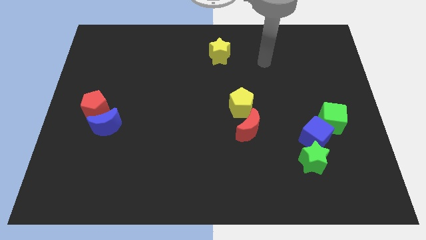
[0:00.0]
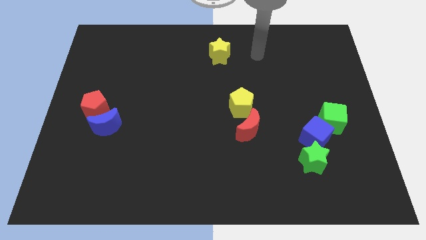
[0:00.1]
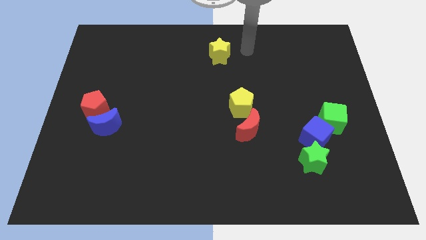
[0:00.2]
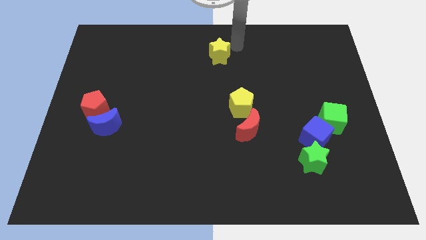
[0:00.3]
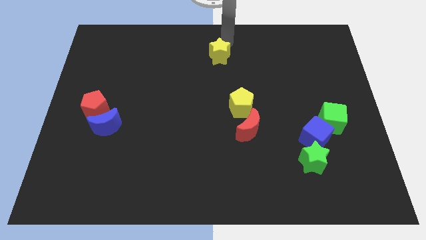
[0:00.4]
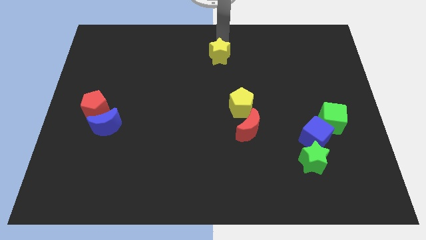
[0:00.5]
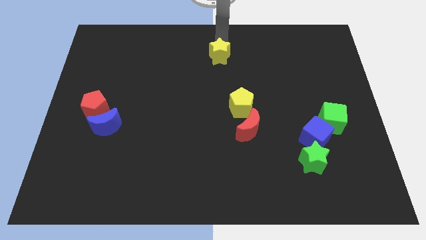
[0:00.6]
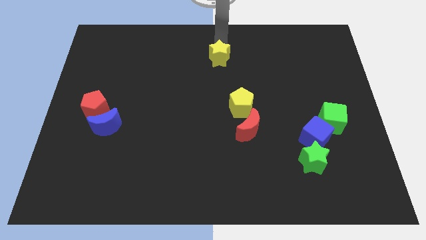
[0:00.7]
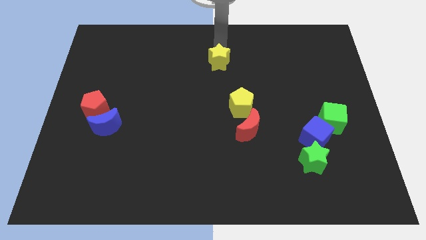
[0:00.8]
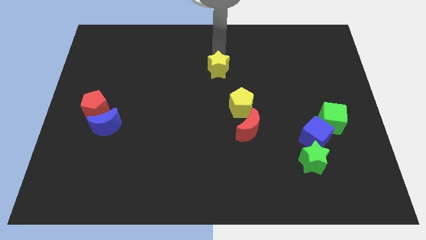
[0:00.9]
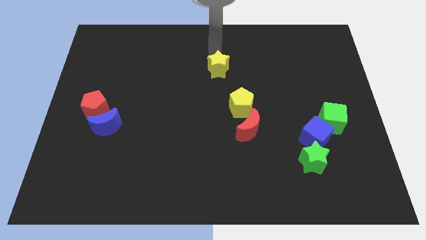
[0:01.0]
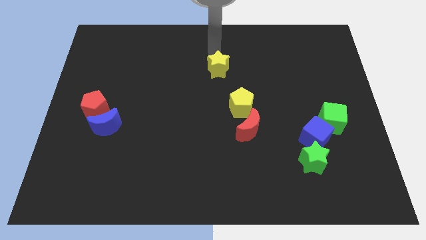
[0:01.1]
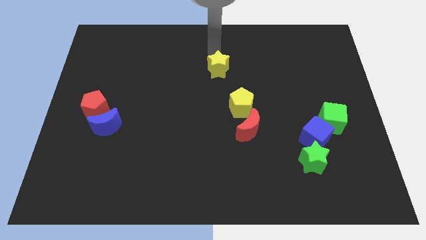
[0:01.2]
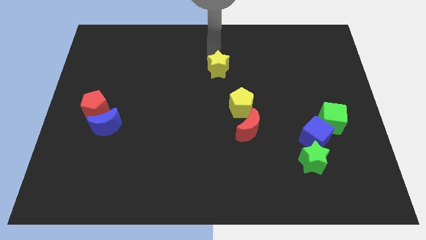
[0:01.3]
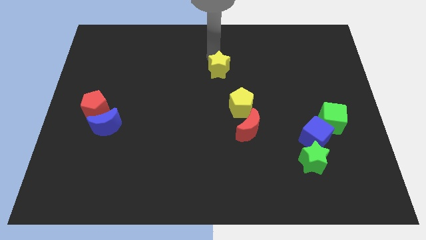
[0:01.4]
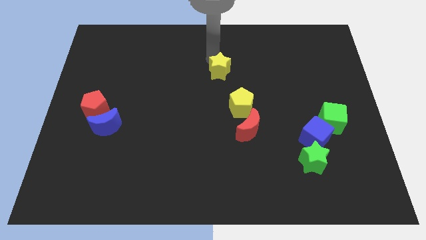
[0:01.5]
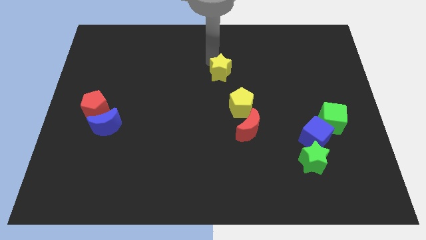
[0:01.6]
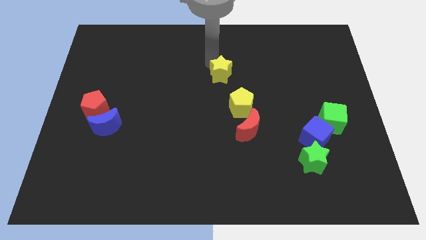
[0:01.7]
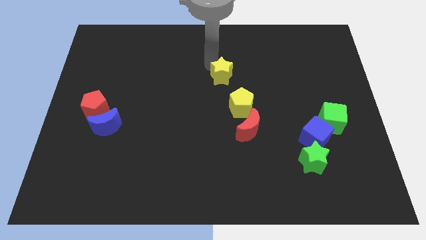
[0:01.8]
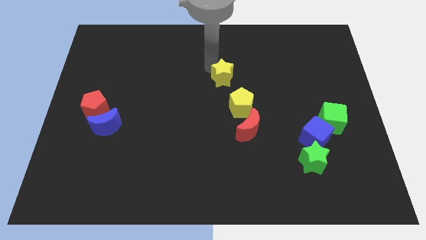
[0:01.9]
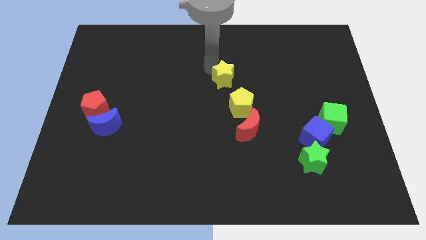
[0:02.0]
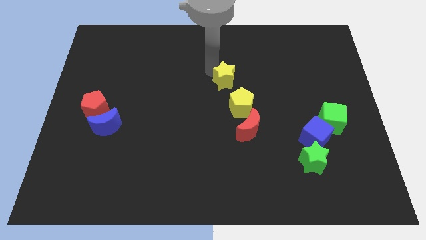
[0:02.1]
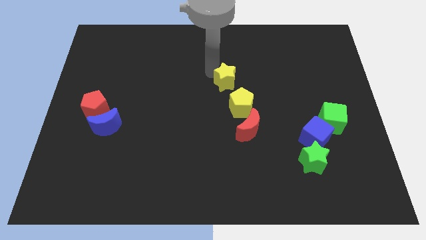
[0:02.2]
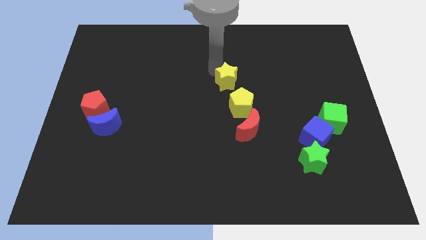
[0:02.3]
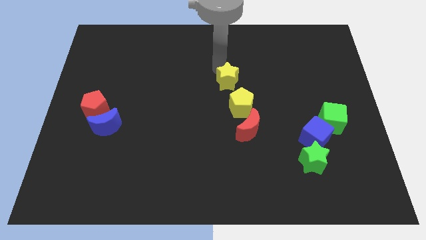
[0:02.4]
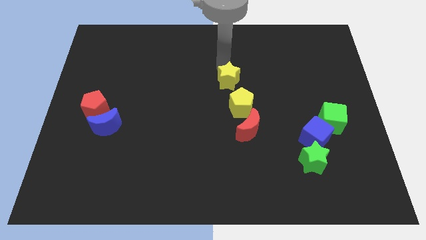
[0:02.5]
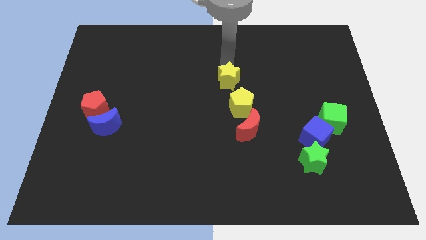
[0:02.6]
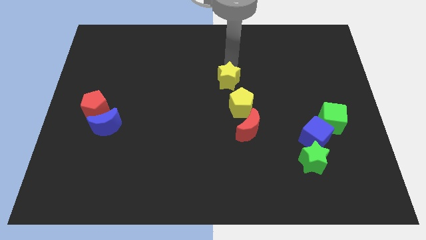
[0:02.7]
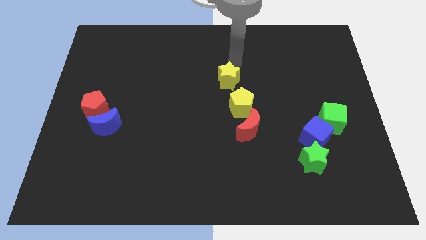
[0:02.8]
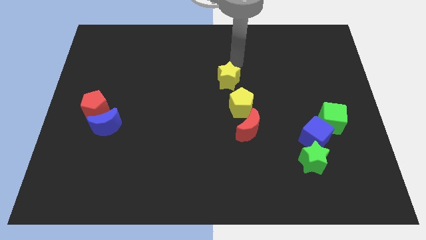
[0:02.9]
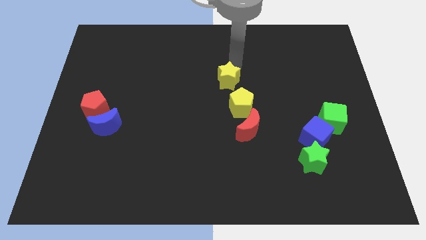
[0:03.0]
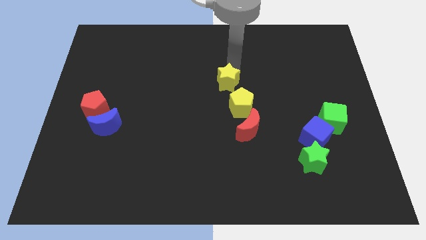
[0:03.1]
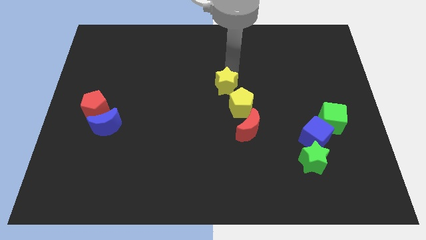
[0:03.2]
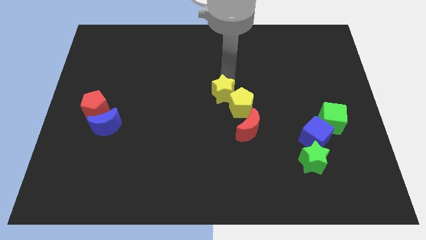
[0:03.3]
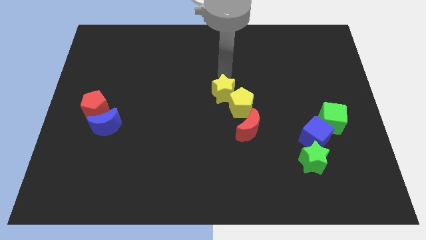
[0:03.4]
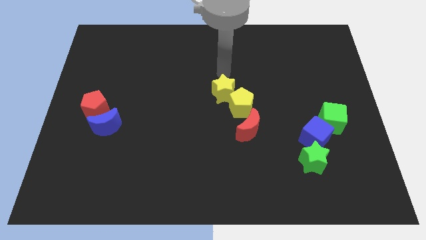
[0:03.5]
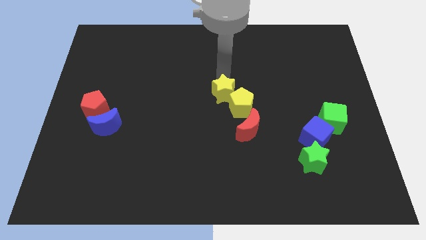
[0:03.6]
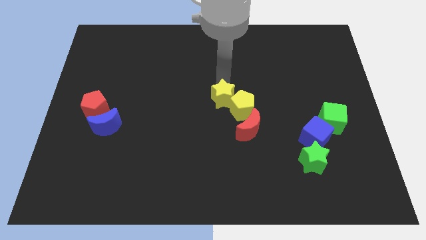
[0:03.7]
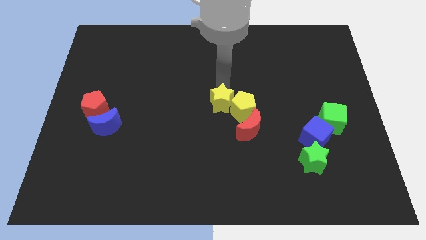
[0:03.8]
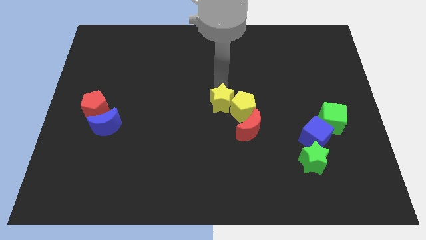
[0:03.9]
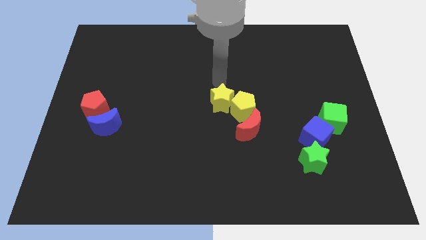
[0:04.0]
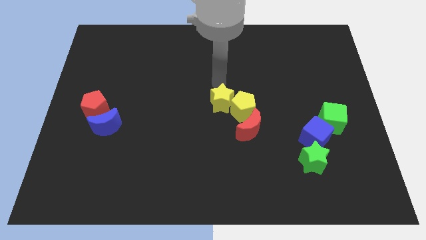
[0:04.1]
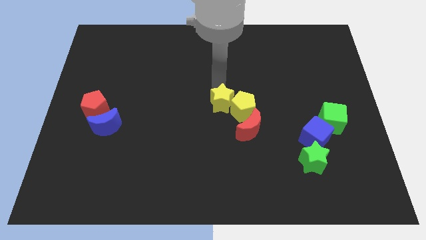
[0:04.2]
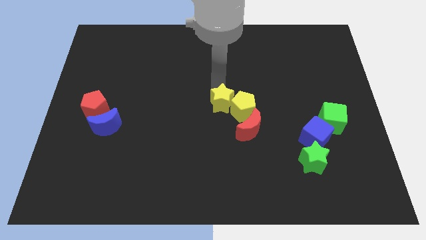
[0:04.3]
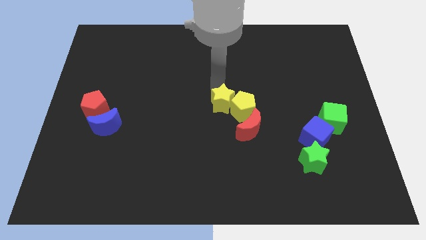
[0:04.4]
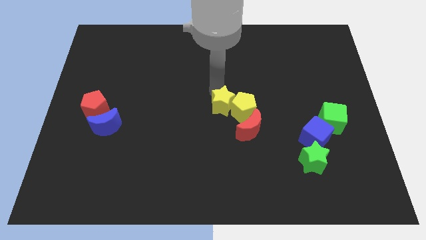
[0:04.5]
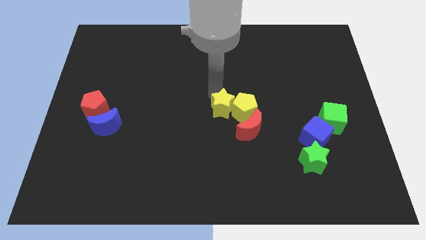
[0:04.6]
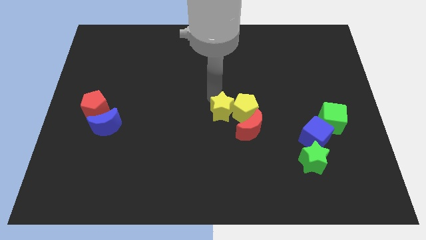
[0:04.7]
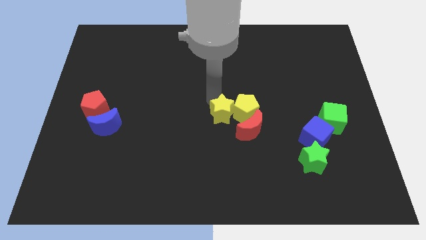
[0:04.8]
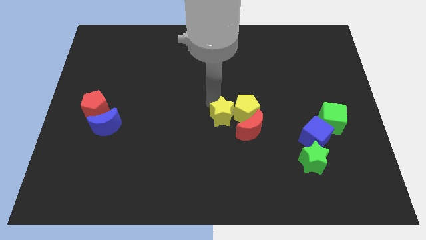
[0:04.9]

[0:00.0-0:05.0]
push the yellow star downwards

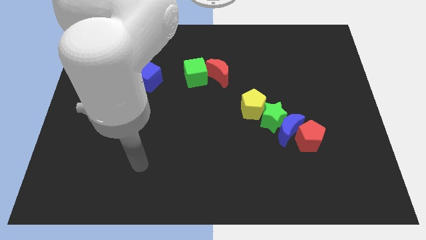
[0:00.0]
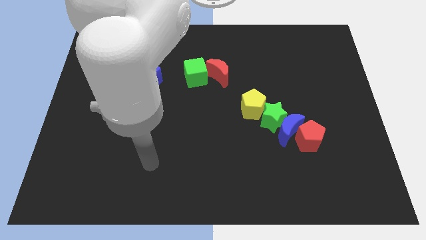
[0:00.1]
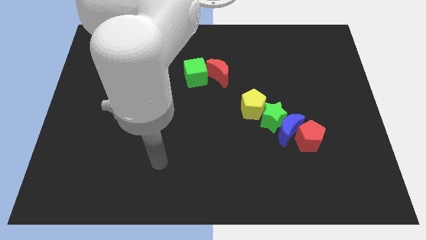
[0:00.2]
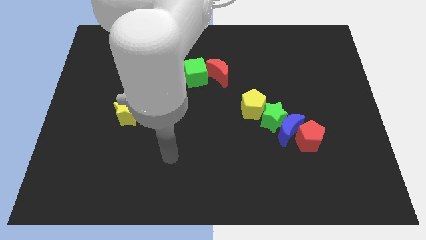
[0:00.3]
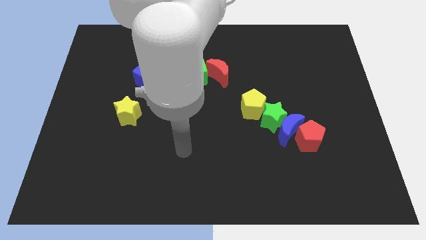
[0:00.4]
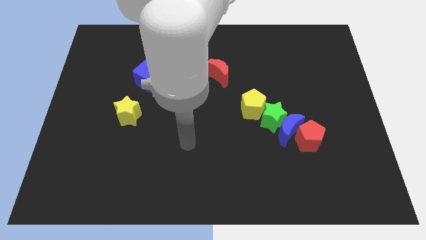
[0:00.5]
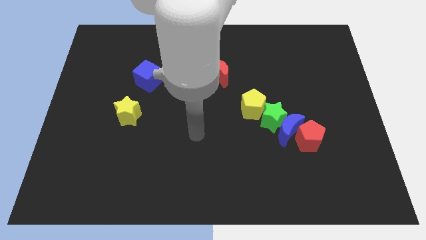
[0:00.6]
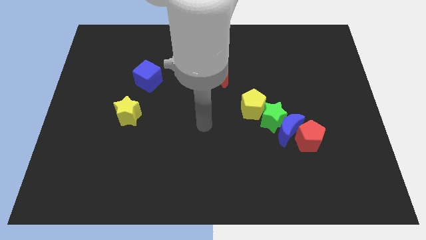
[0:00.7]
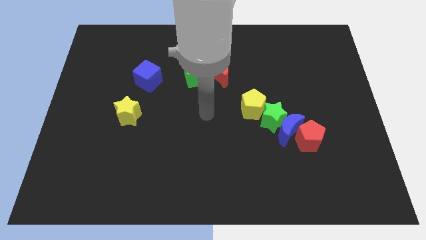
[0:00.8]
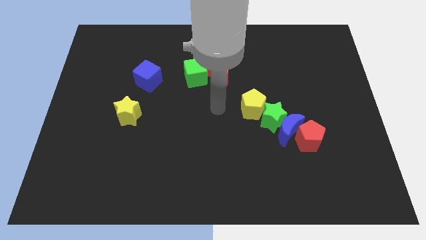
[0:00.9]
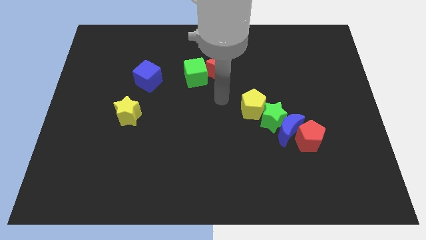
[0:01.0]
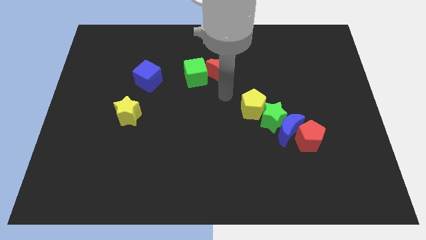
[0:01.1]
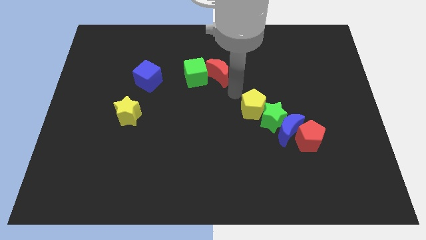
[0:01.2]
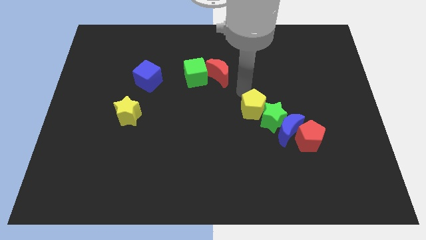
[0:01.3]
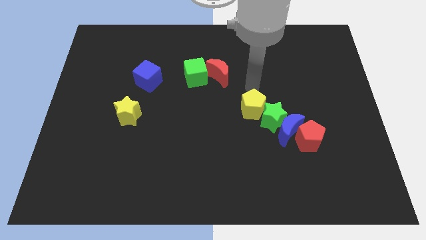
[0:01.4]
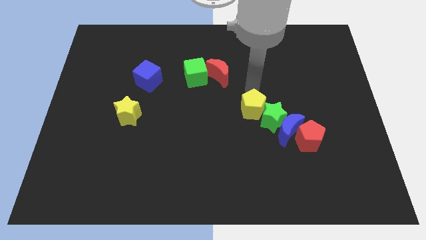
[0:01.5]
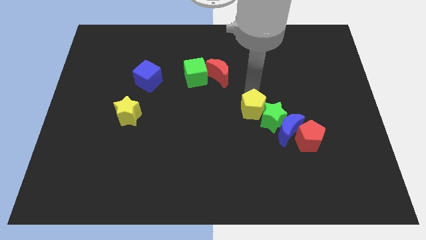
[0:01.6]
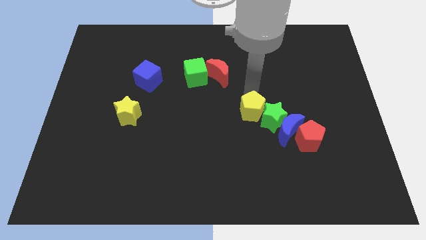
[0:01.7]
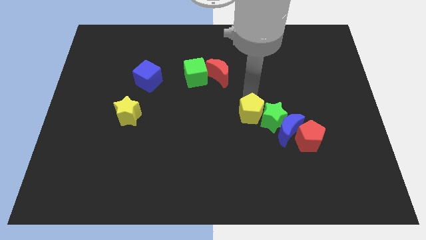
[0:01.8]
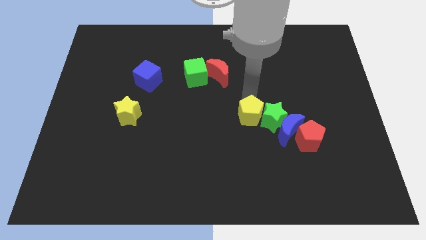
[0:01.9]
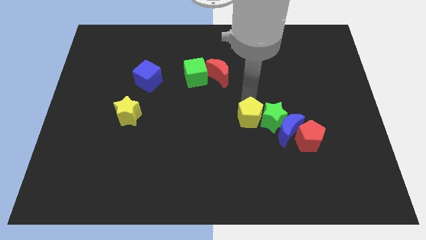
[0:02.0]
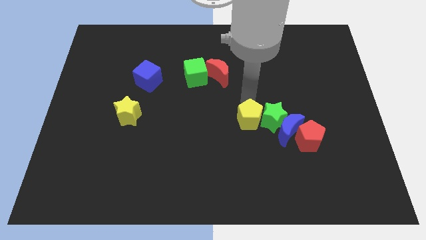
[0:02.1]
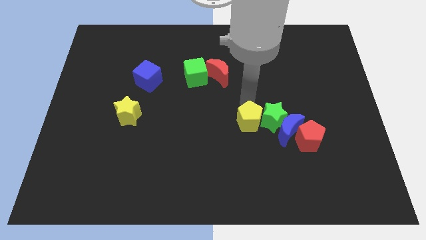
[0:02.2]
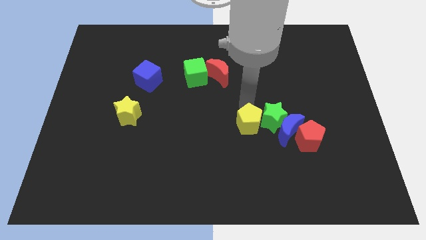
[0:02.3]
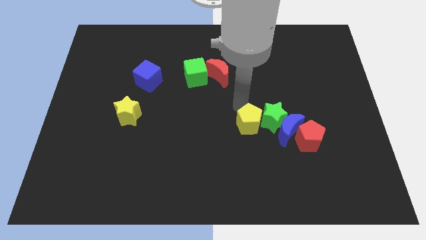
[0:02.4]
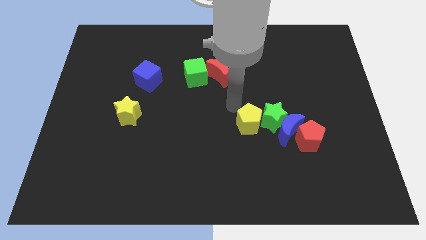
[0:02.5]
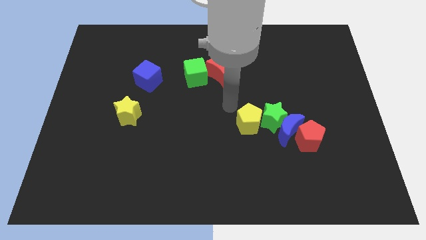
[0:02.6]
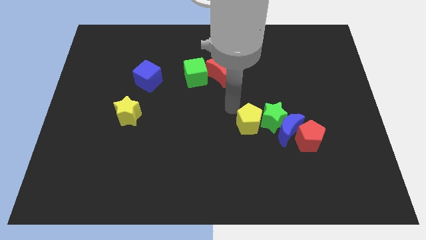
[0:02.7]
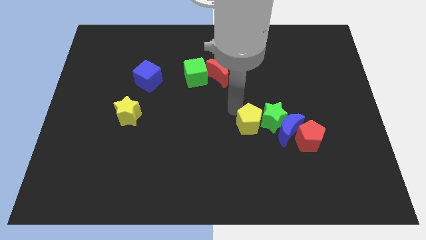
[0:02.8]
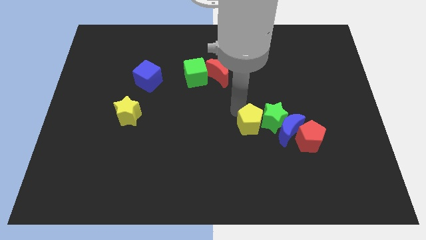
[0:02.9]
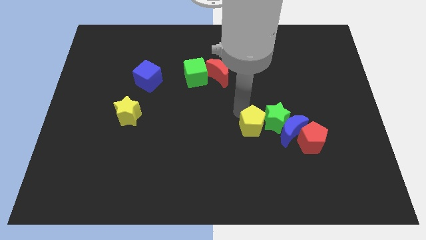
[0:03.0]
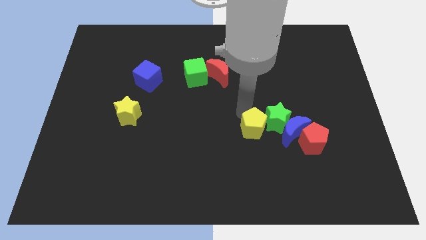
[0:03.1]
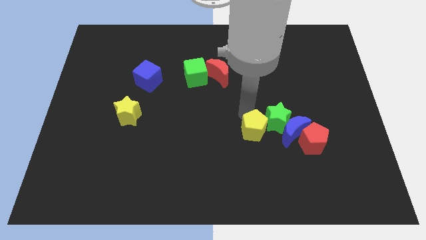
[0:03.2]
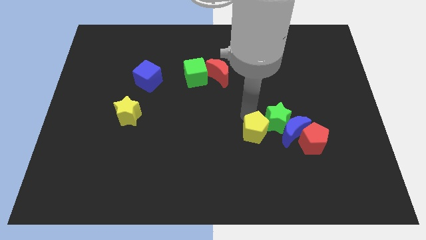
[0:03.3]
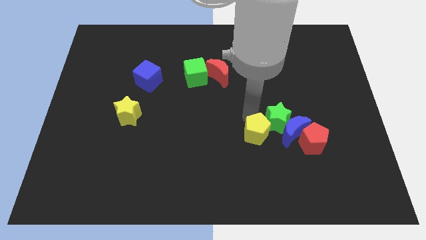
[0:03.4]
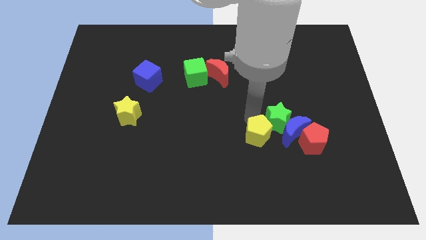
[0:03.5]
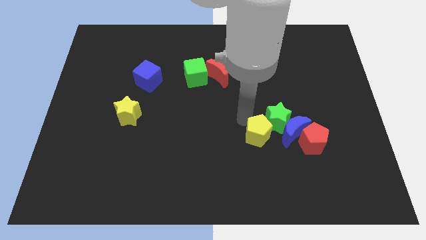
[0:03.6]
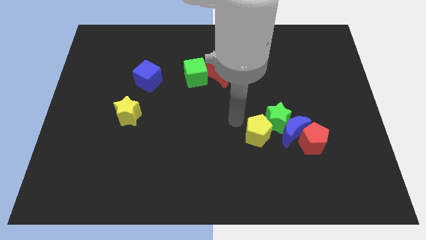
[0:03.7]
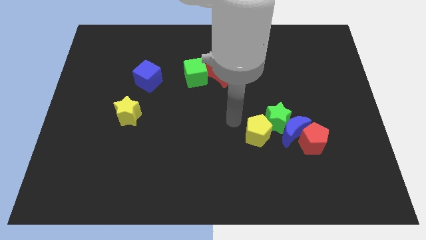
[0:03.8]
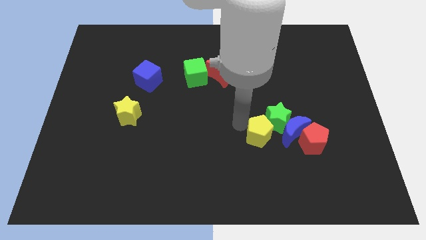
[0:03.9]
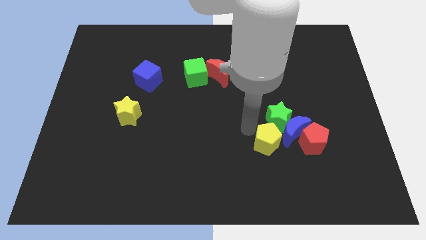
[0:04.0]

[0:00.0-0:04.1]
move the yellow pentagon a little diagonally down and right
